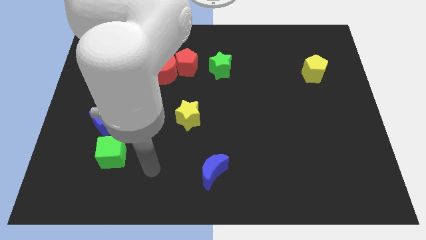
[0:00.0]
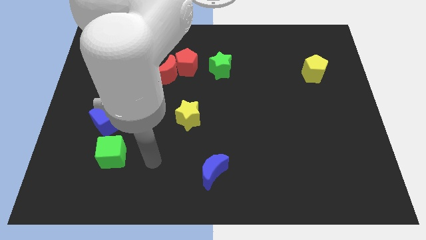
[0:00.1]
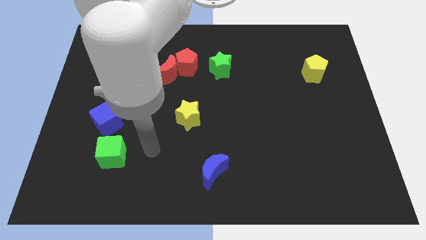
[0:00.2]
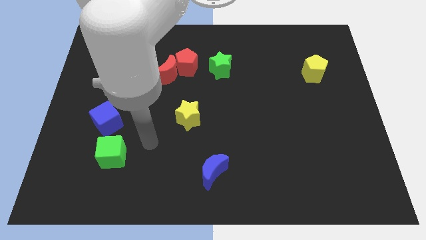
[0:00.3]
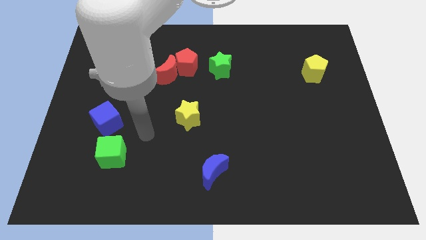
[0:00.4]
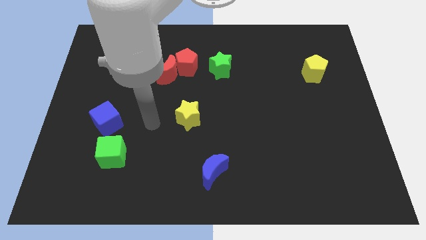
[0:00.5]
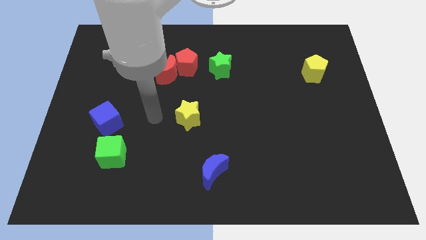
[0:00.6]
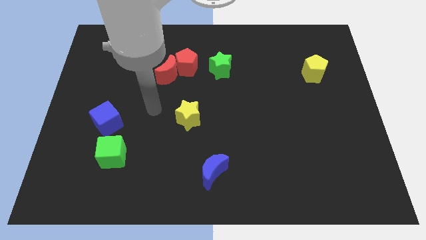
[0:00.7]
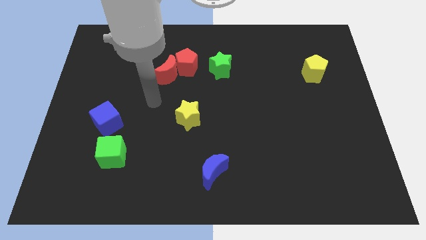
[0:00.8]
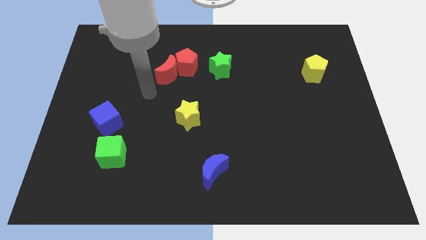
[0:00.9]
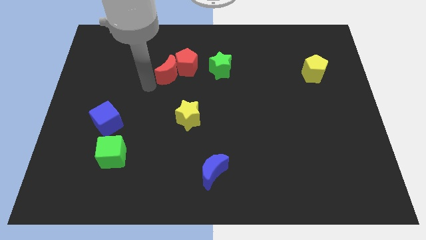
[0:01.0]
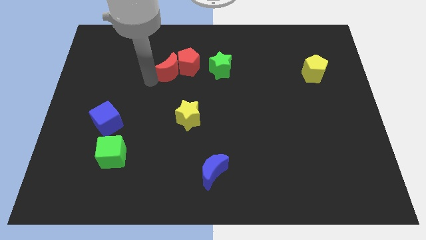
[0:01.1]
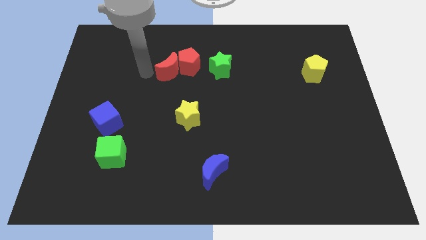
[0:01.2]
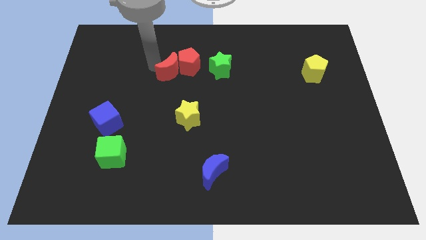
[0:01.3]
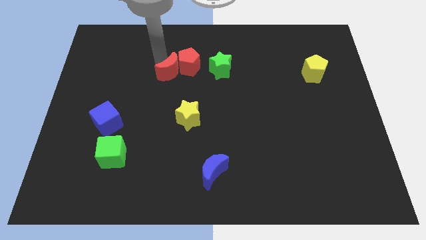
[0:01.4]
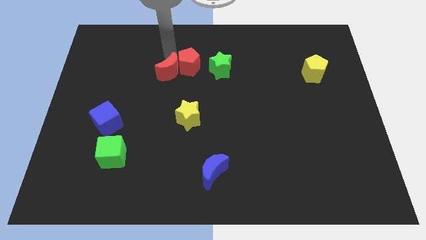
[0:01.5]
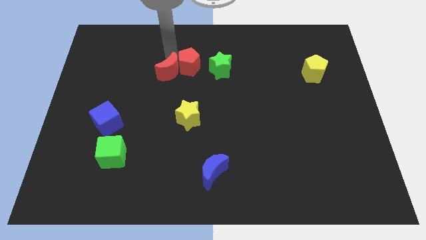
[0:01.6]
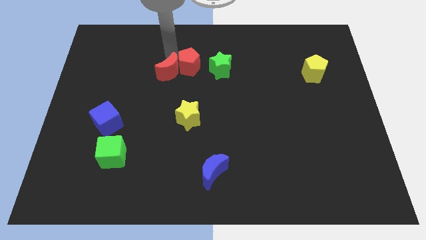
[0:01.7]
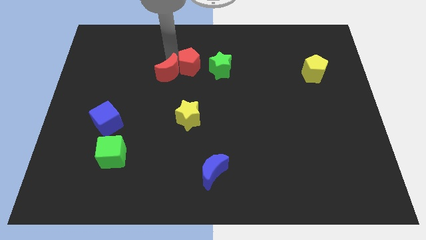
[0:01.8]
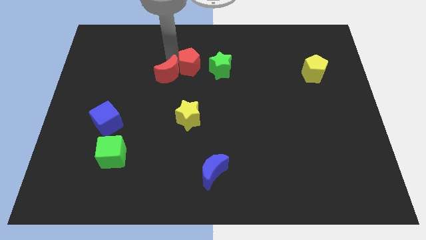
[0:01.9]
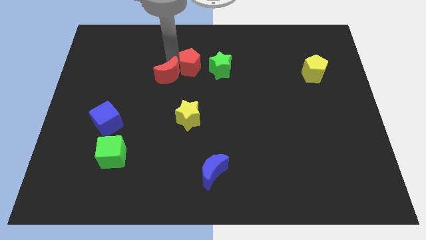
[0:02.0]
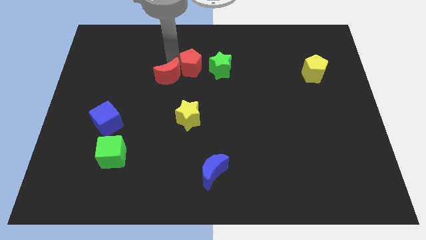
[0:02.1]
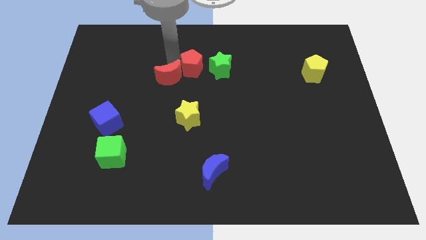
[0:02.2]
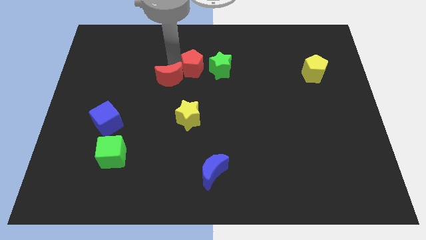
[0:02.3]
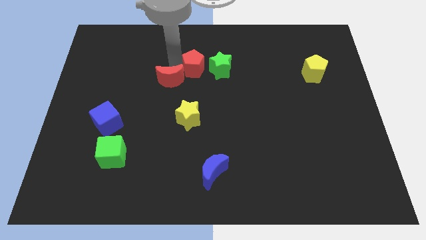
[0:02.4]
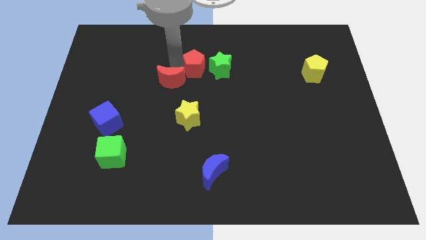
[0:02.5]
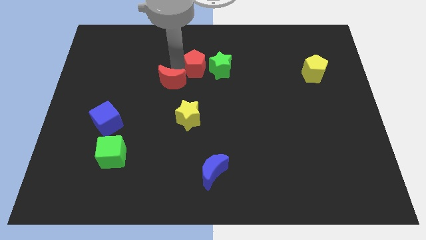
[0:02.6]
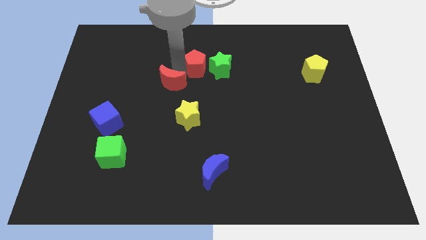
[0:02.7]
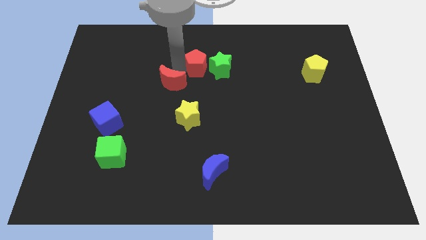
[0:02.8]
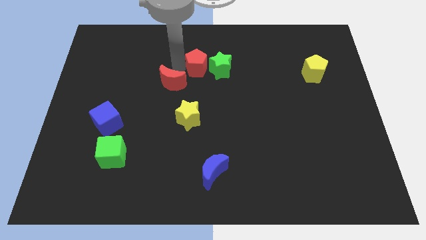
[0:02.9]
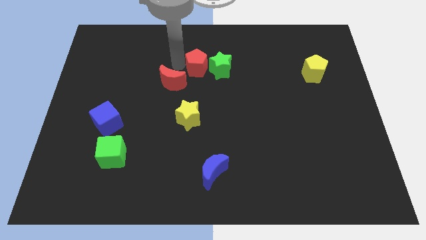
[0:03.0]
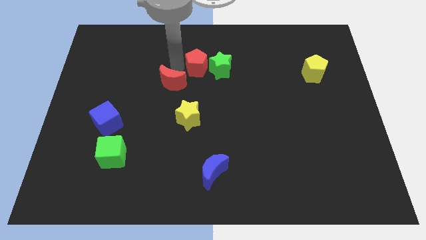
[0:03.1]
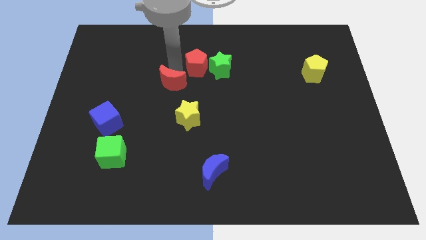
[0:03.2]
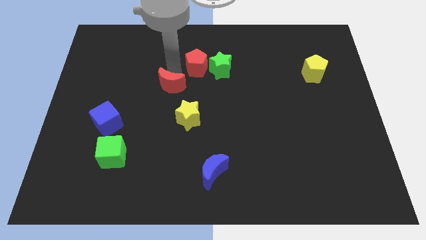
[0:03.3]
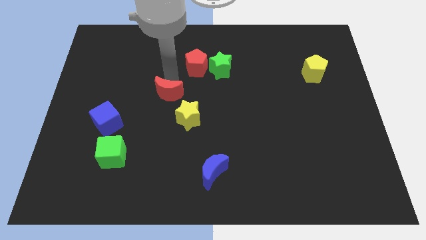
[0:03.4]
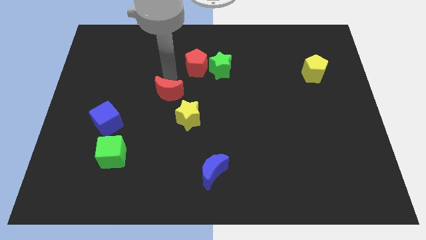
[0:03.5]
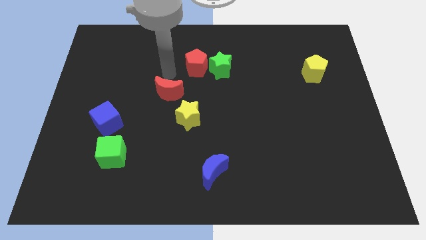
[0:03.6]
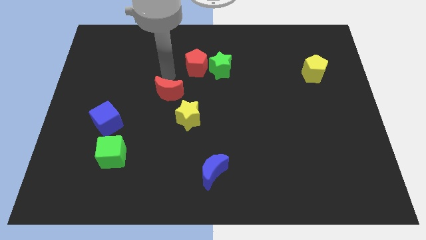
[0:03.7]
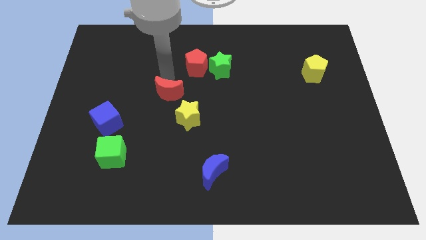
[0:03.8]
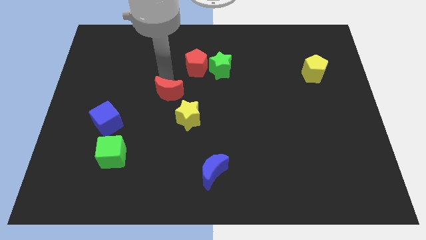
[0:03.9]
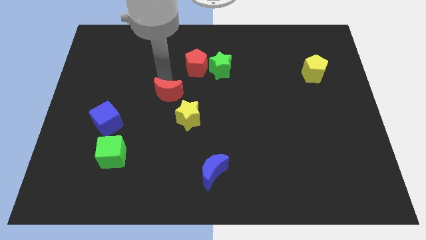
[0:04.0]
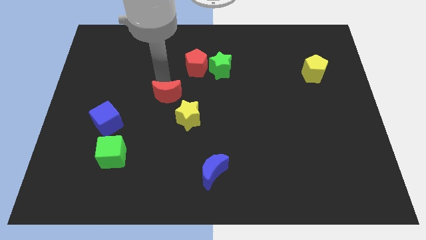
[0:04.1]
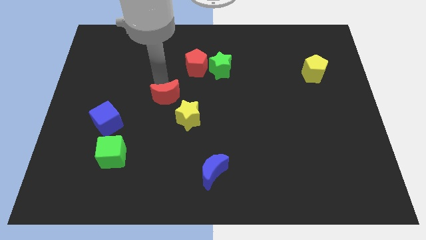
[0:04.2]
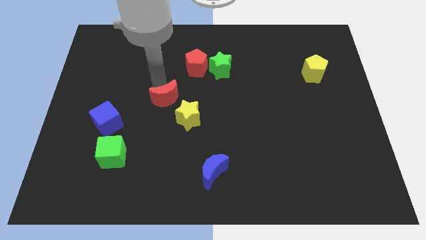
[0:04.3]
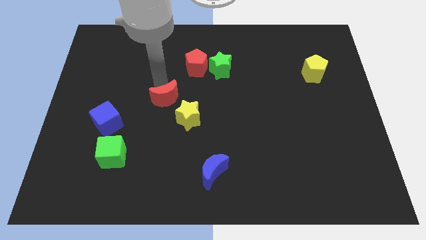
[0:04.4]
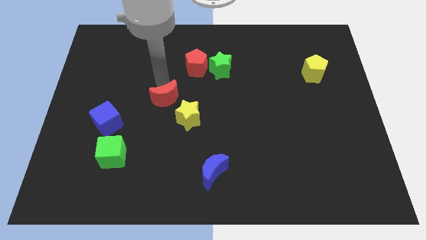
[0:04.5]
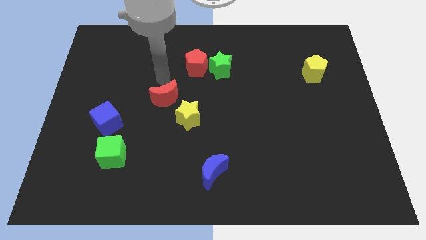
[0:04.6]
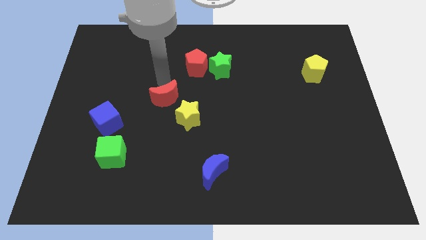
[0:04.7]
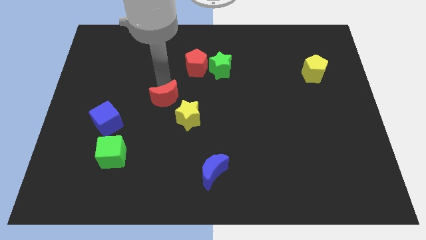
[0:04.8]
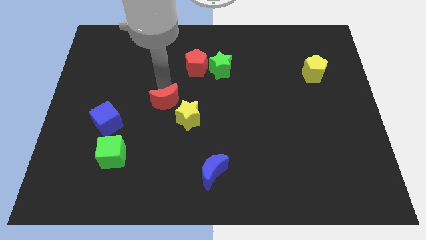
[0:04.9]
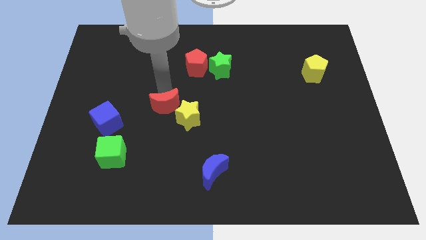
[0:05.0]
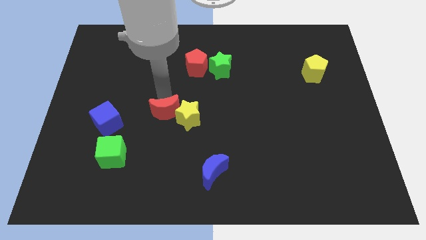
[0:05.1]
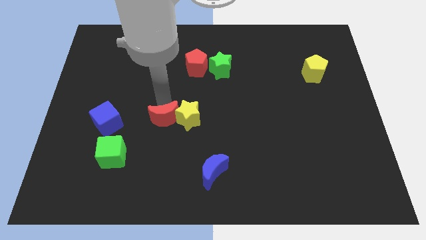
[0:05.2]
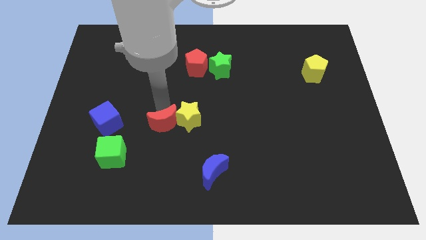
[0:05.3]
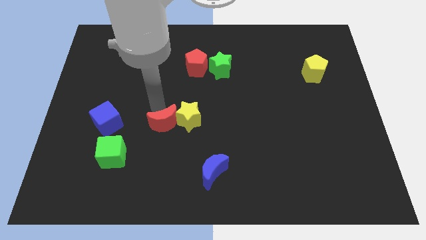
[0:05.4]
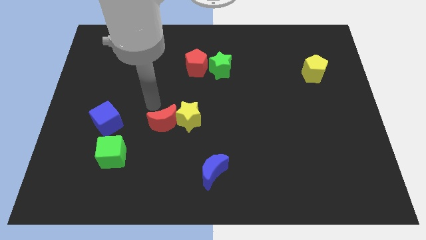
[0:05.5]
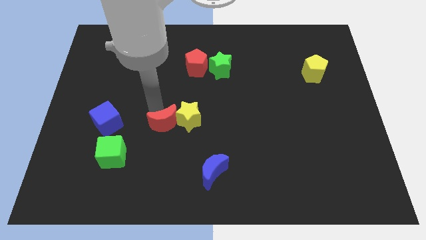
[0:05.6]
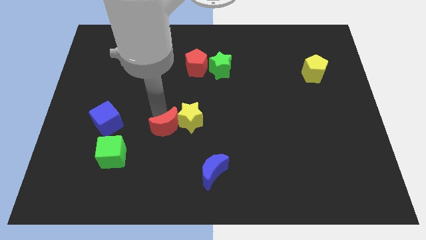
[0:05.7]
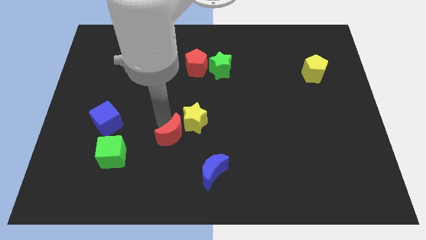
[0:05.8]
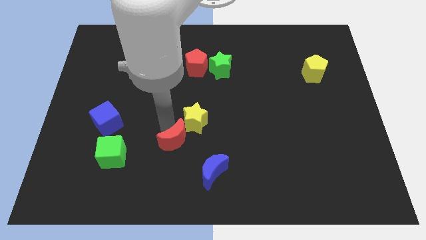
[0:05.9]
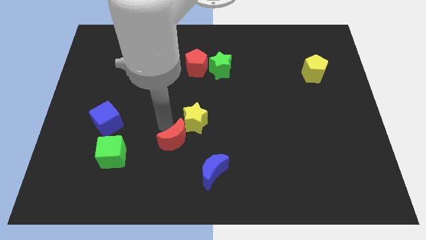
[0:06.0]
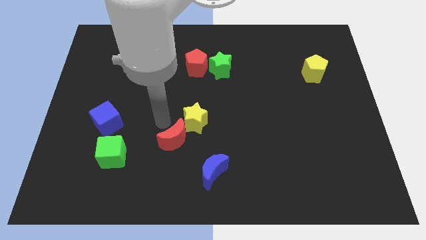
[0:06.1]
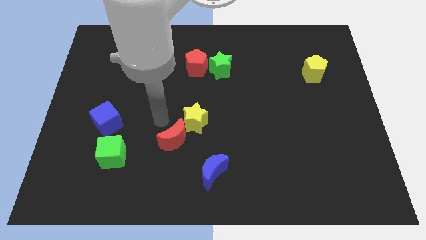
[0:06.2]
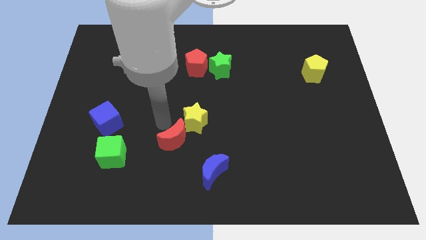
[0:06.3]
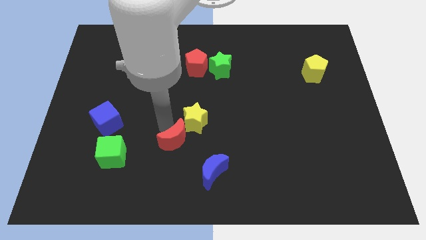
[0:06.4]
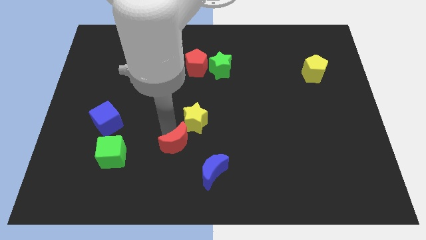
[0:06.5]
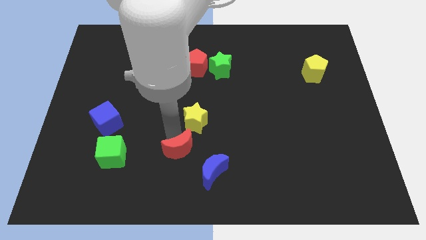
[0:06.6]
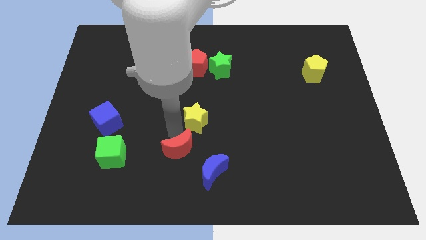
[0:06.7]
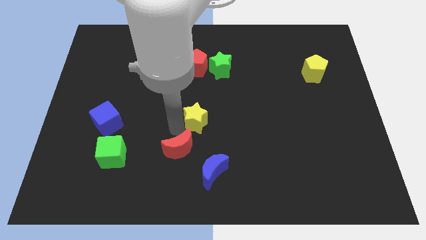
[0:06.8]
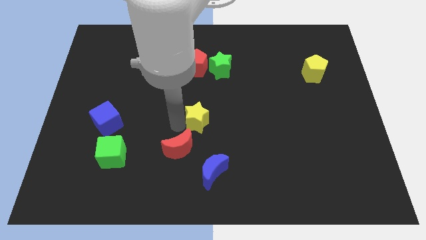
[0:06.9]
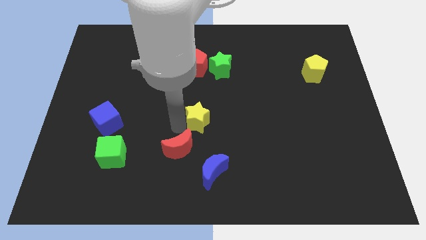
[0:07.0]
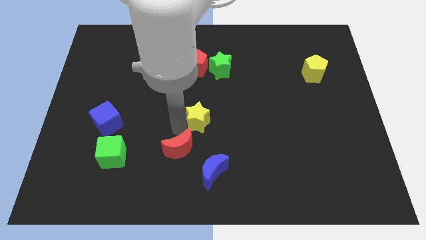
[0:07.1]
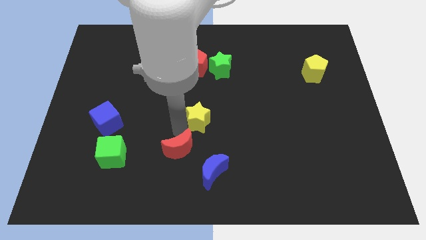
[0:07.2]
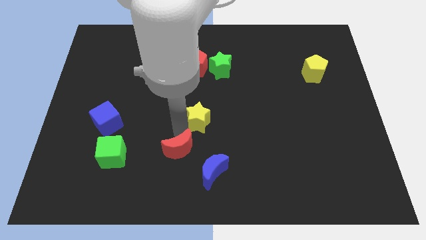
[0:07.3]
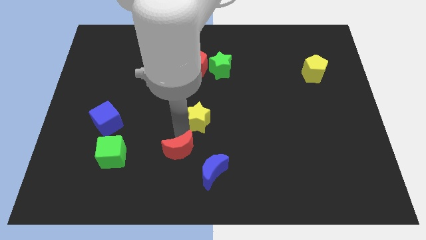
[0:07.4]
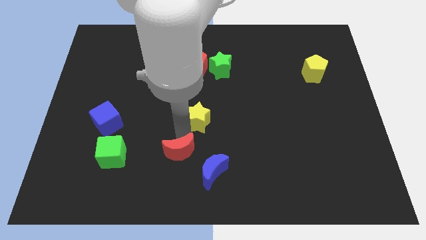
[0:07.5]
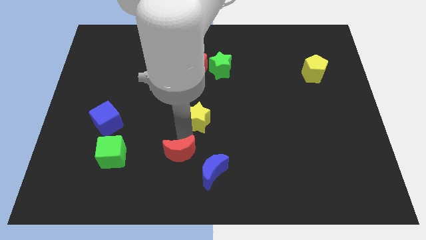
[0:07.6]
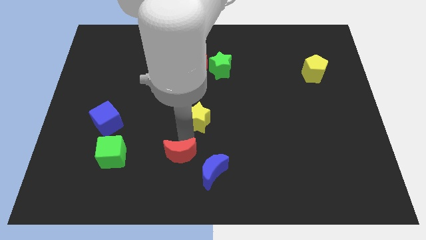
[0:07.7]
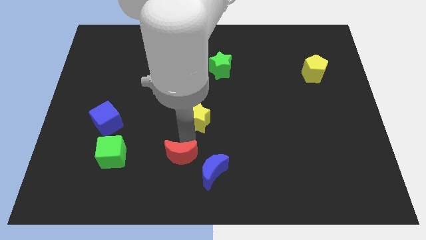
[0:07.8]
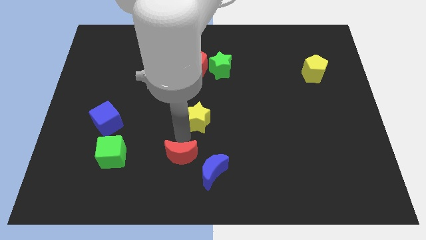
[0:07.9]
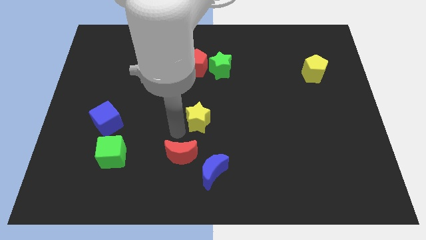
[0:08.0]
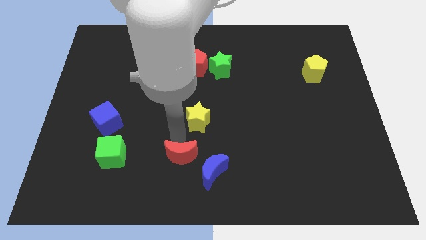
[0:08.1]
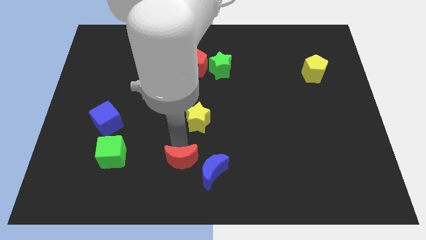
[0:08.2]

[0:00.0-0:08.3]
put the red moon to the bottom side
